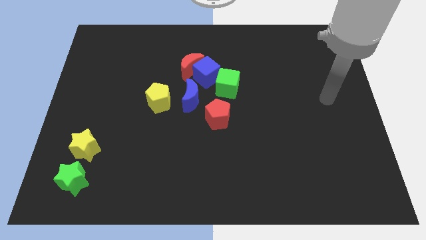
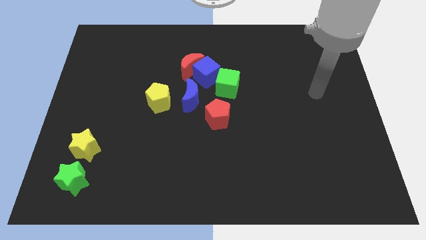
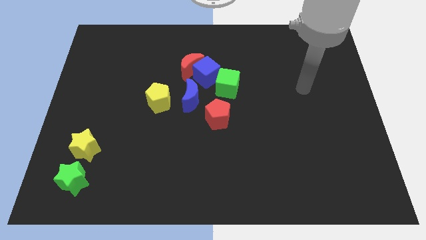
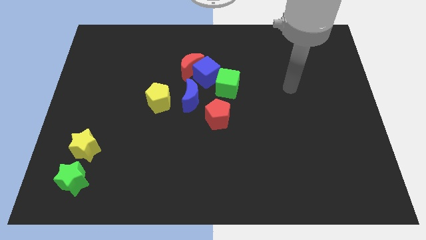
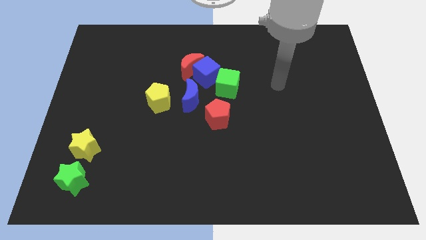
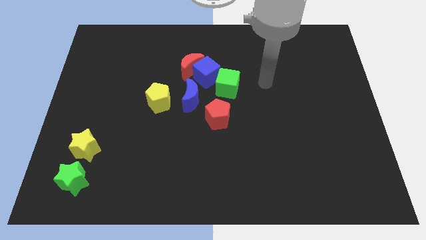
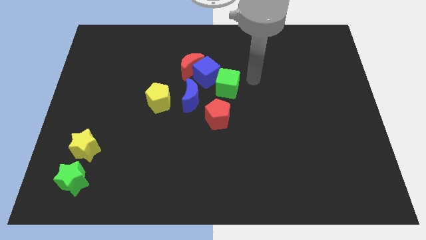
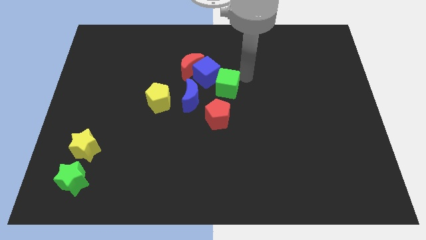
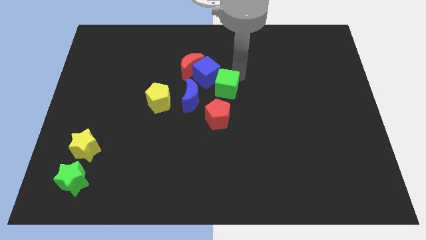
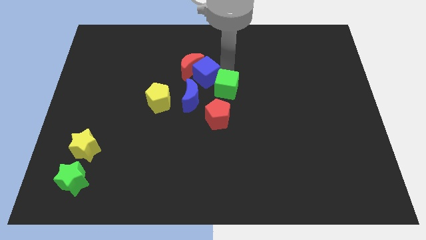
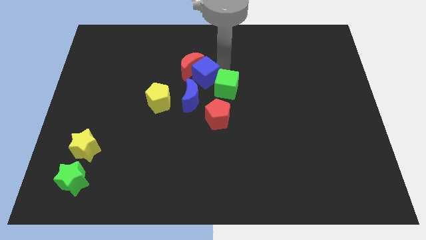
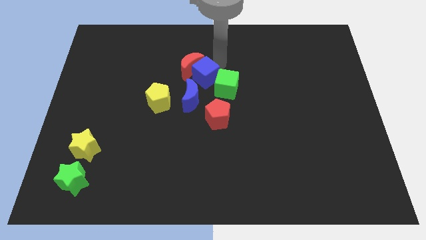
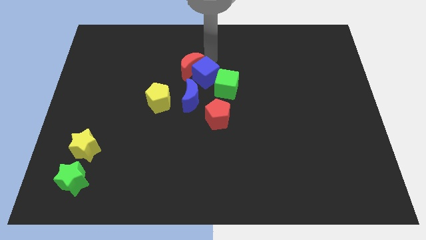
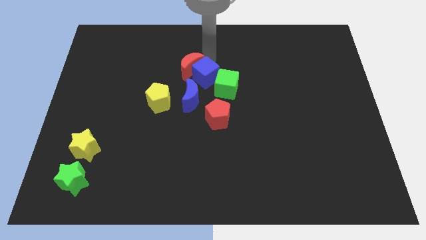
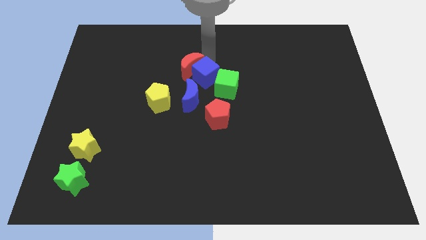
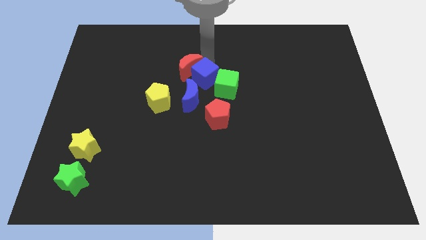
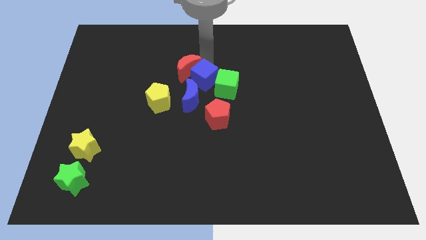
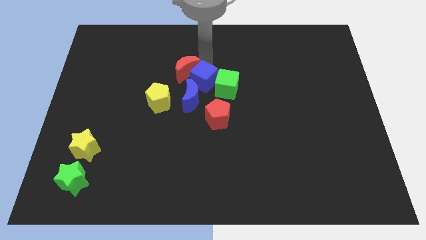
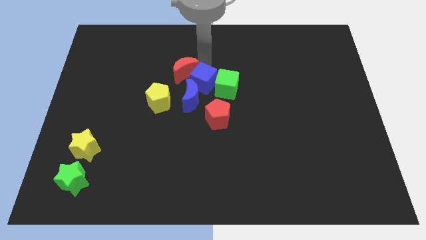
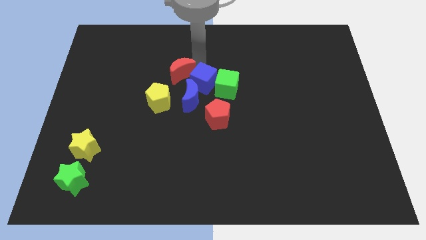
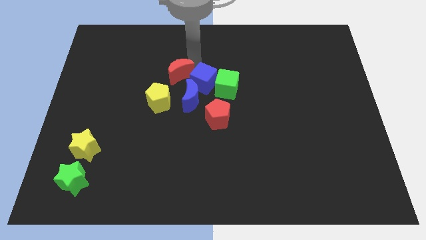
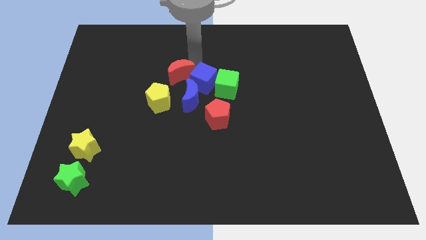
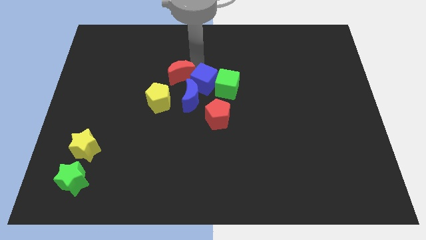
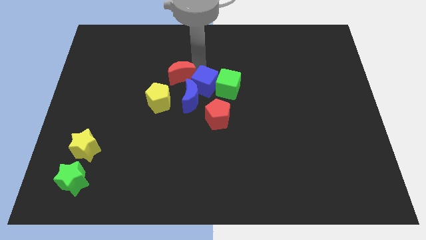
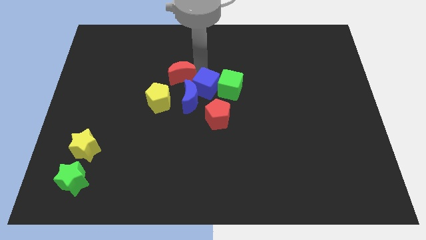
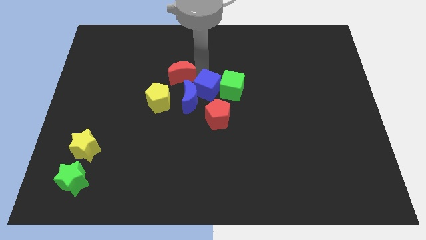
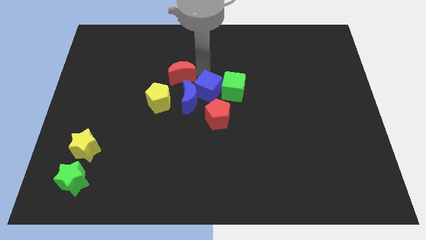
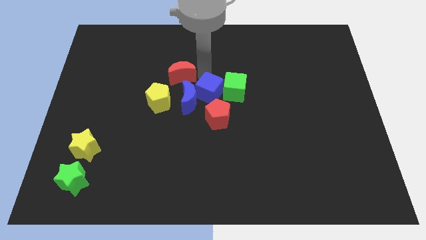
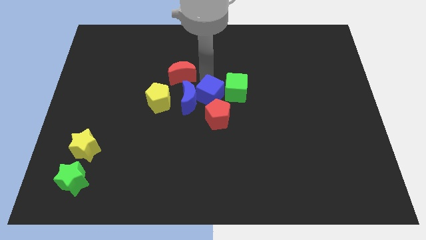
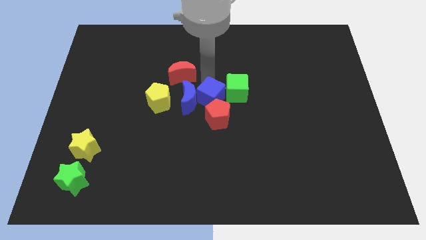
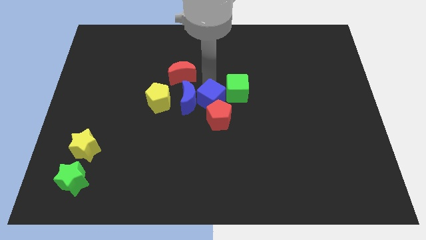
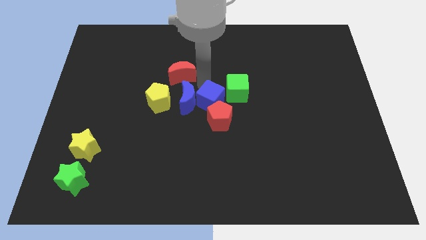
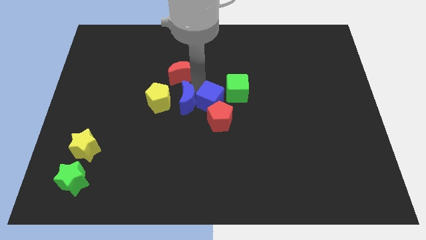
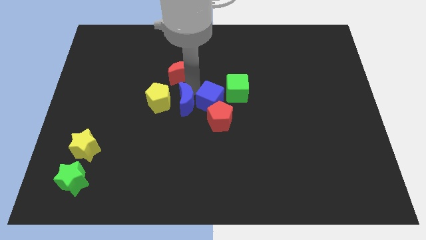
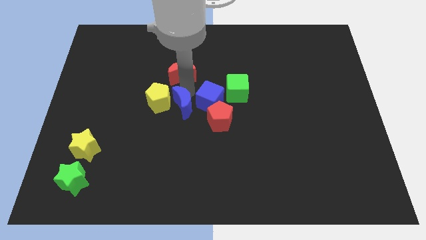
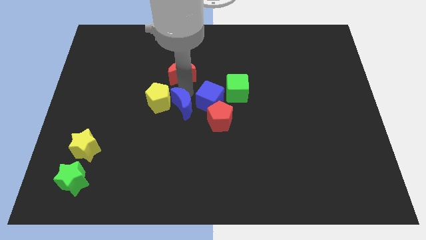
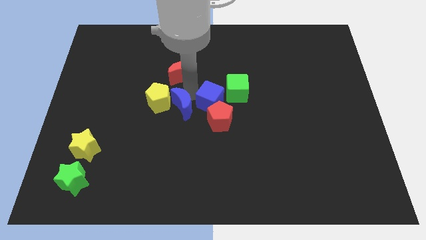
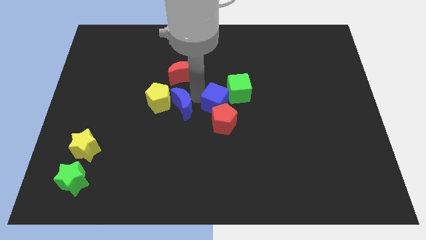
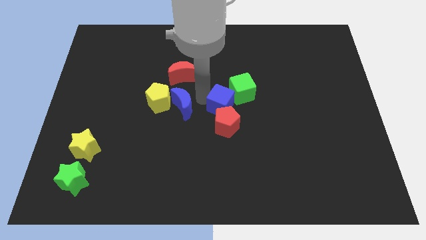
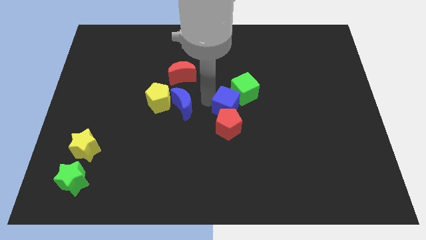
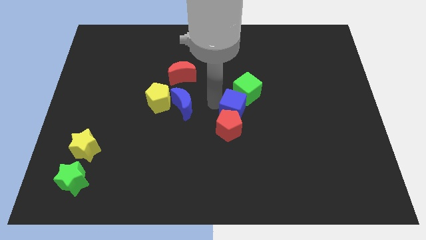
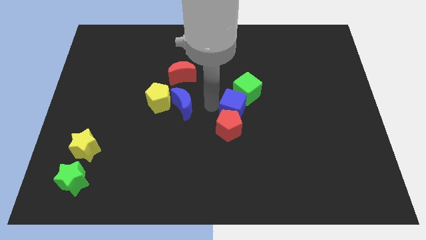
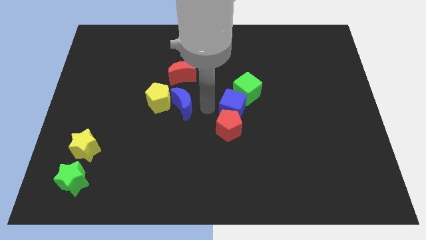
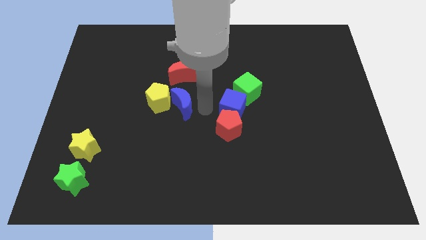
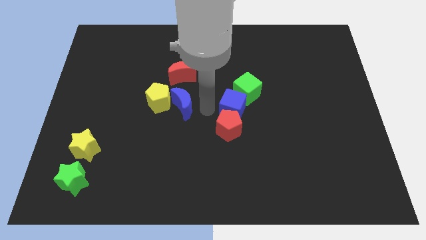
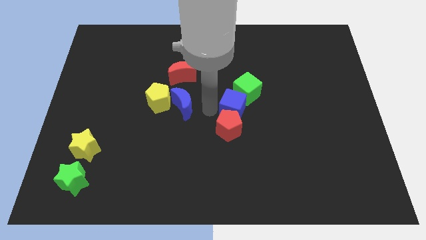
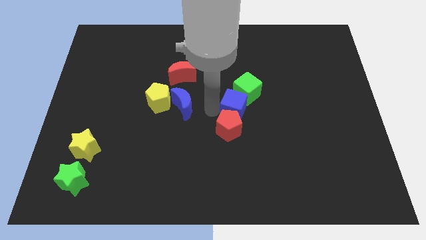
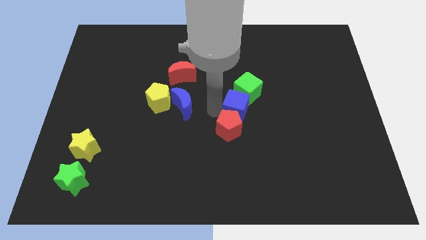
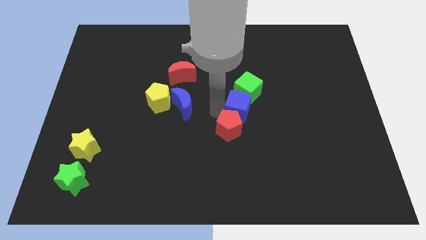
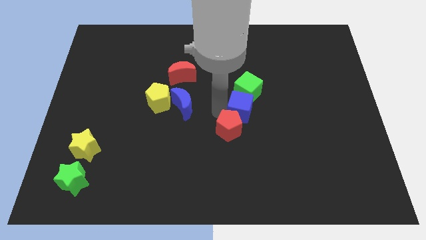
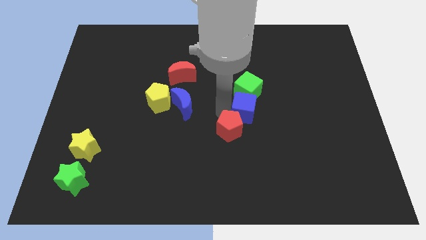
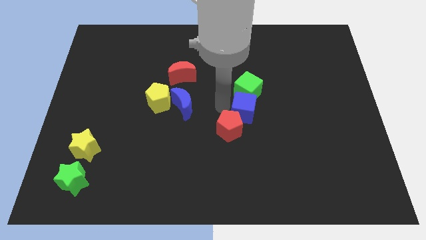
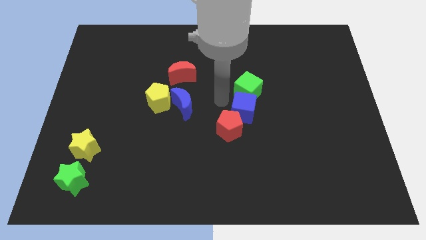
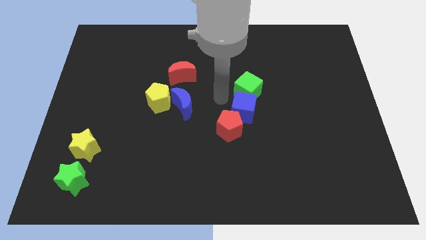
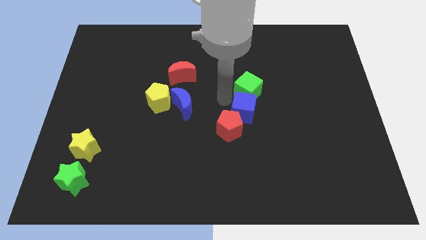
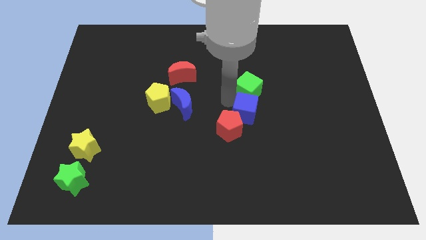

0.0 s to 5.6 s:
slide the blue cube to the right side of the red pentagon

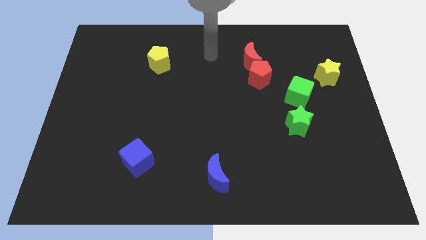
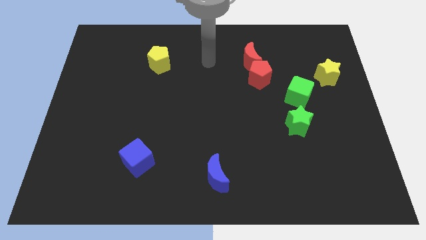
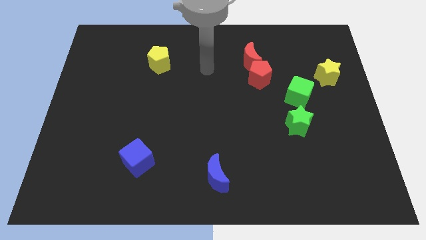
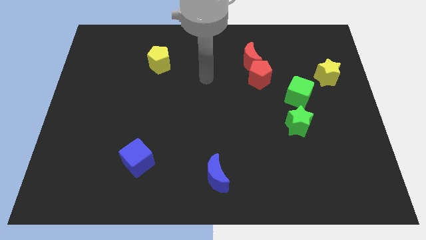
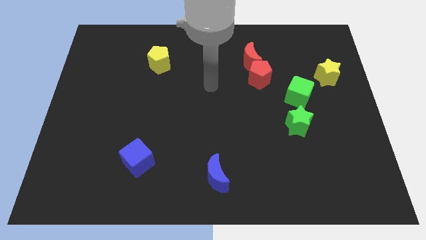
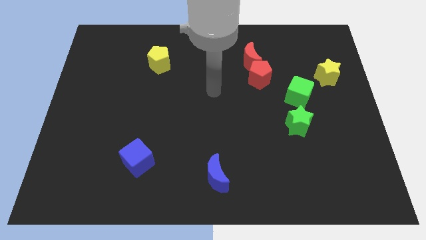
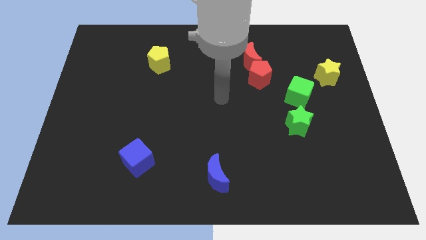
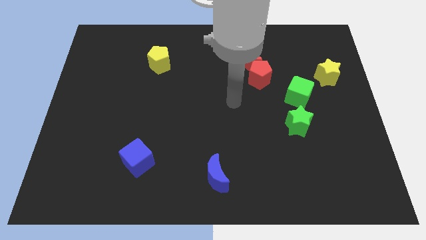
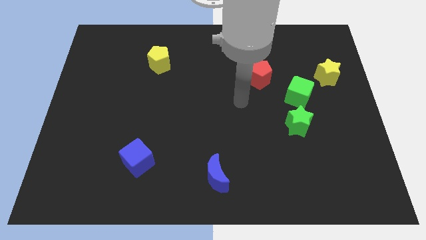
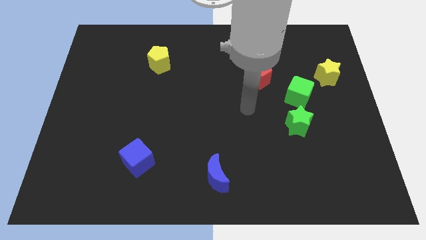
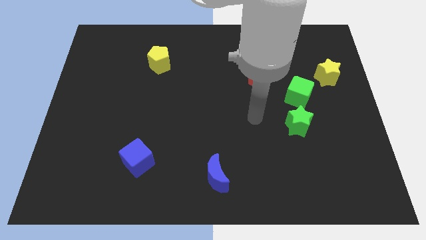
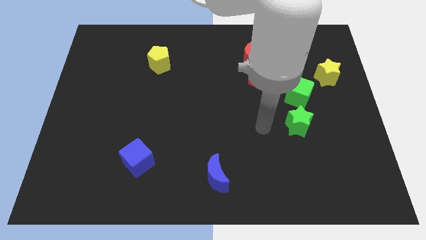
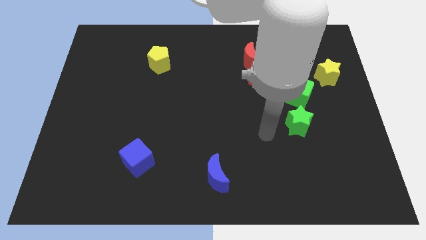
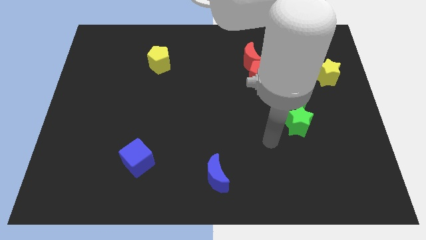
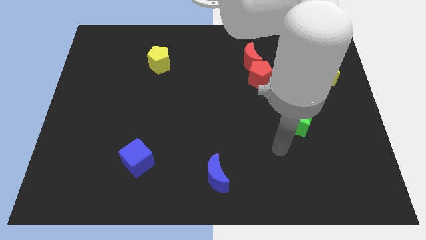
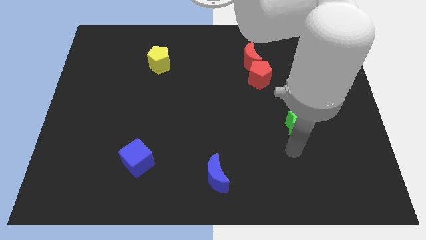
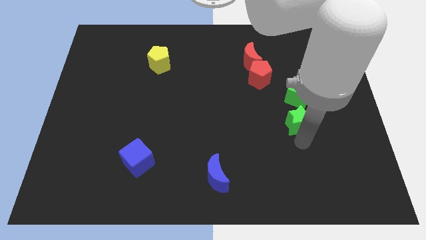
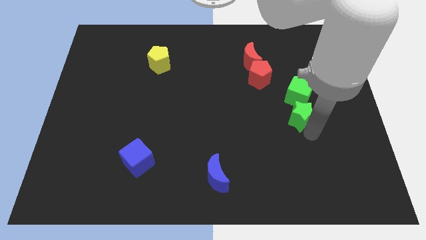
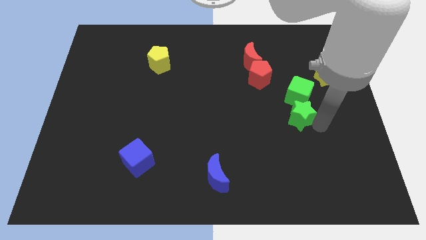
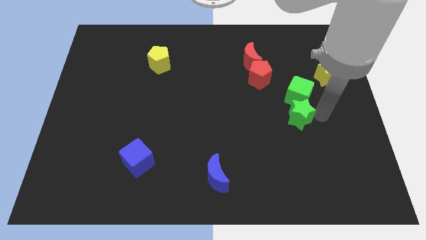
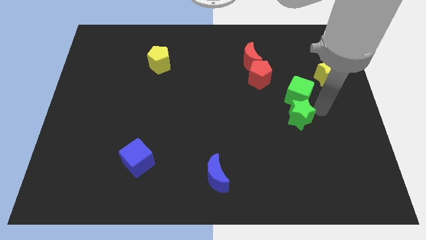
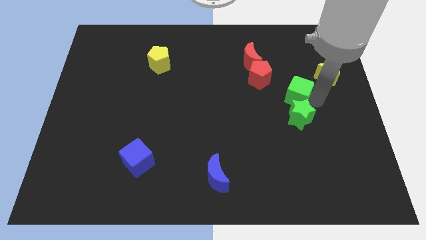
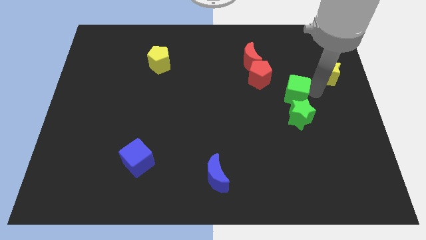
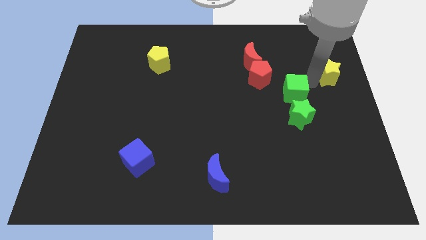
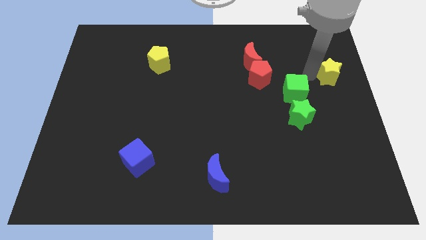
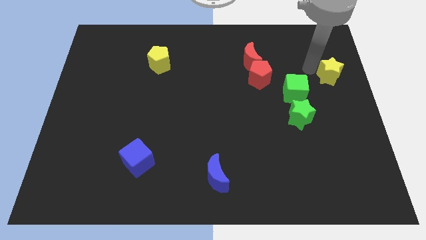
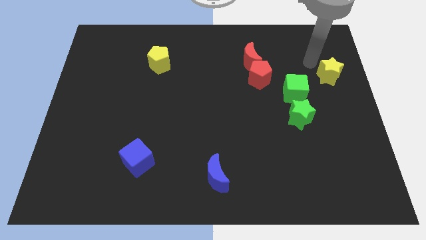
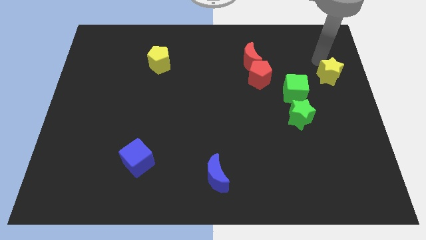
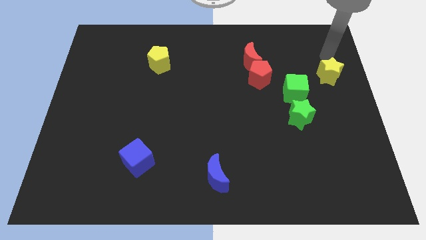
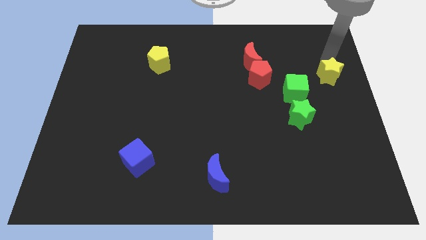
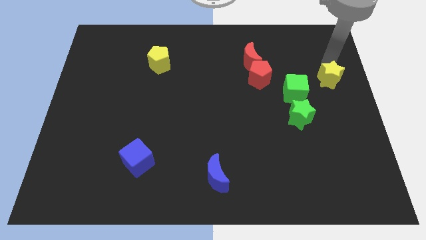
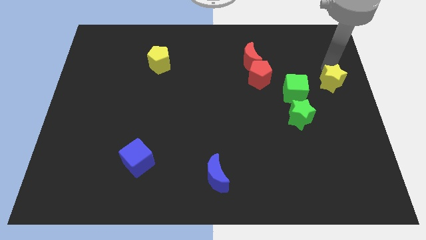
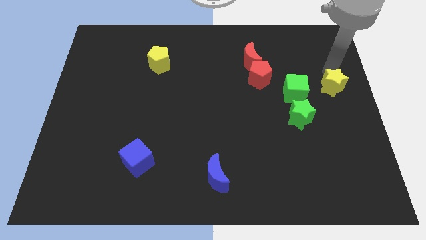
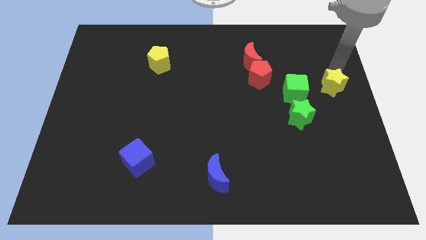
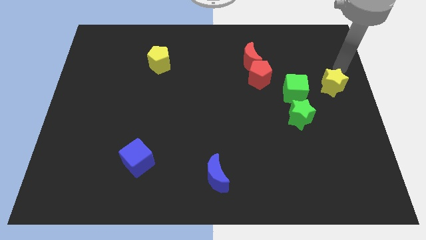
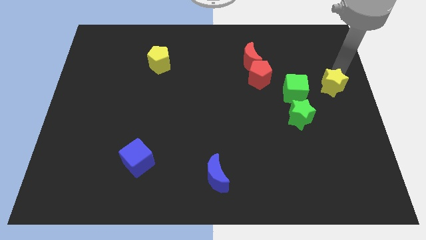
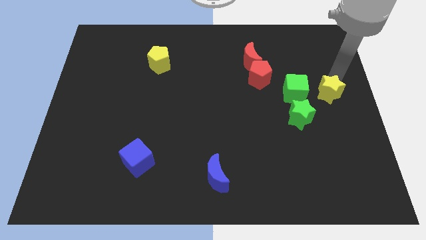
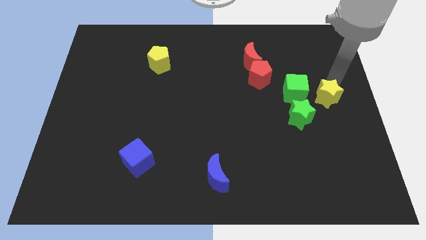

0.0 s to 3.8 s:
push the yellow star diagonally down and to the right of the green cube
